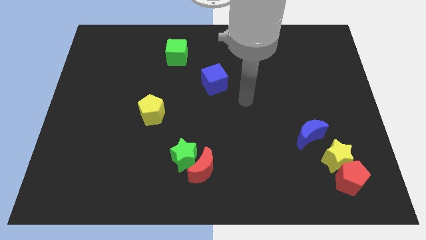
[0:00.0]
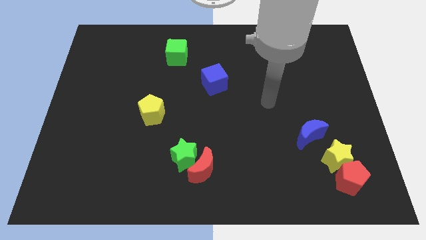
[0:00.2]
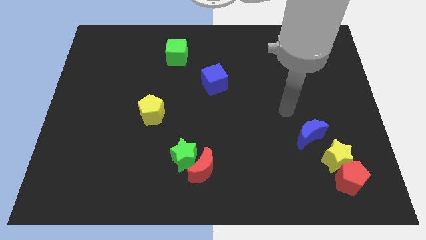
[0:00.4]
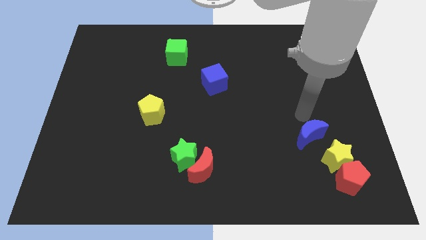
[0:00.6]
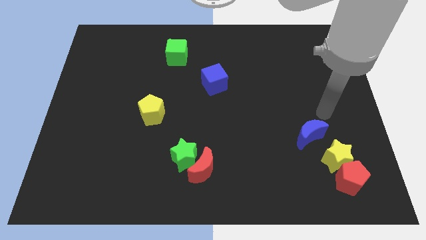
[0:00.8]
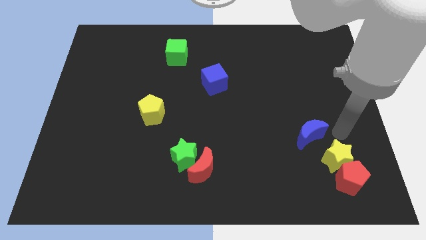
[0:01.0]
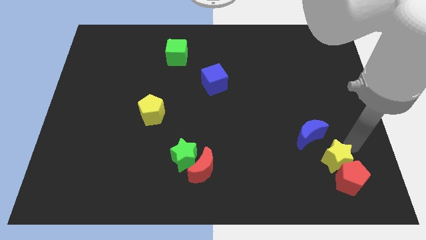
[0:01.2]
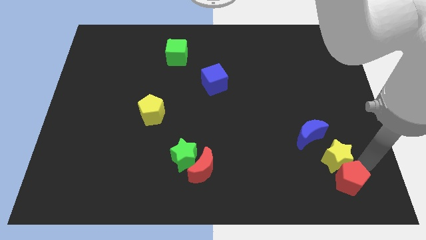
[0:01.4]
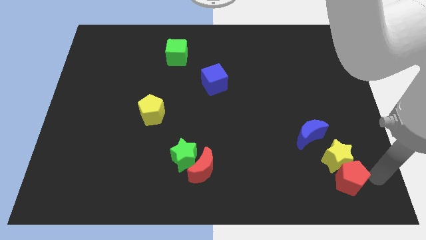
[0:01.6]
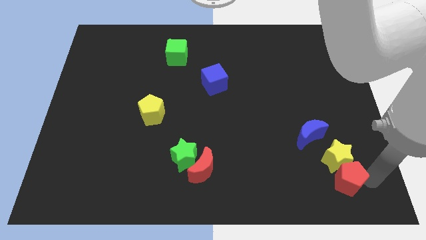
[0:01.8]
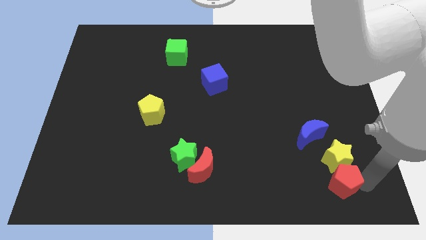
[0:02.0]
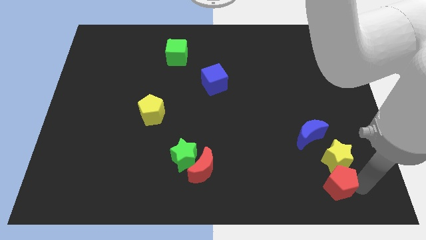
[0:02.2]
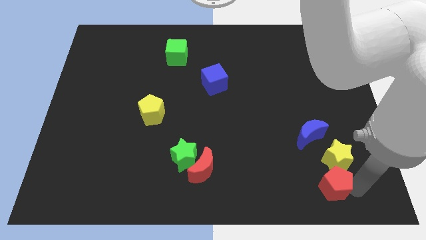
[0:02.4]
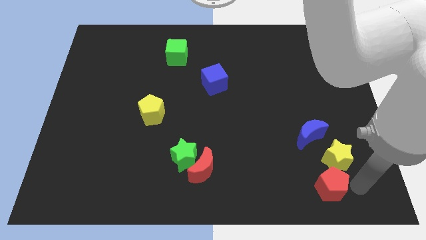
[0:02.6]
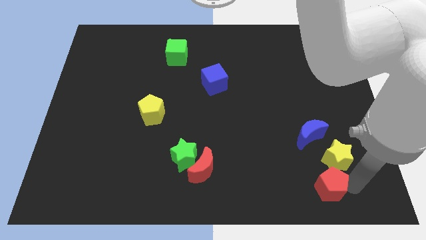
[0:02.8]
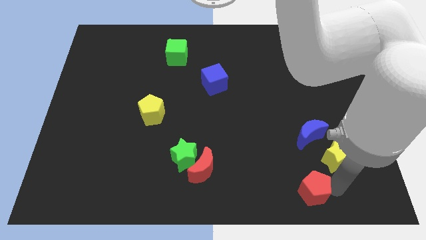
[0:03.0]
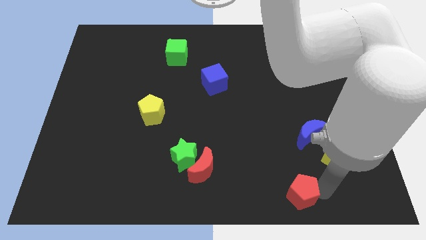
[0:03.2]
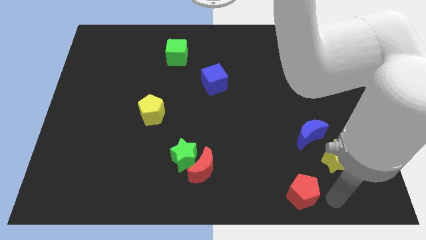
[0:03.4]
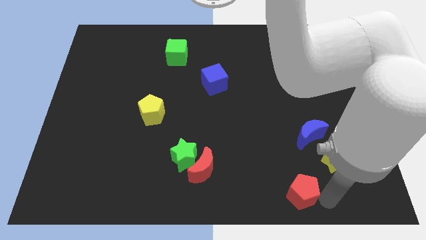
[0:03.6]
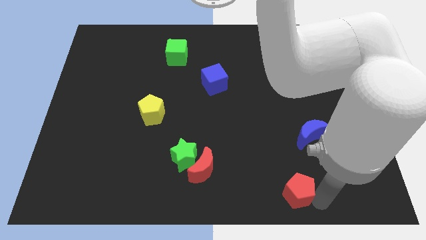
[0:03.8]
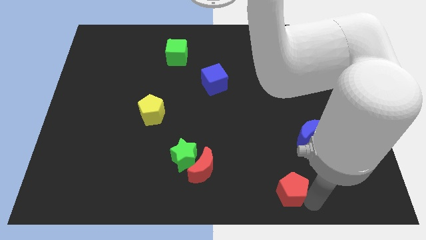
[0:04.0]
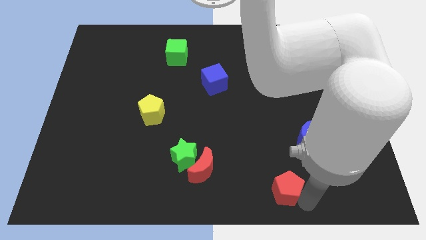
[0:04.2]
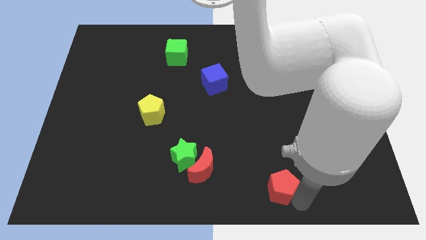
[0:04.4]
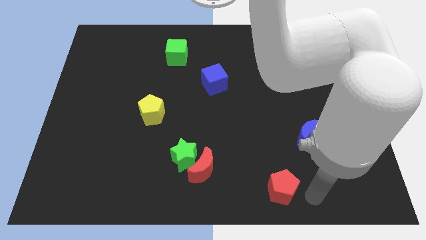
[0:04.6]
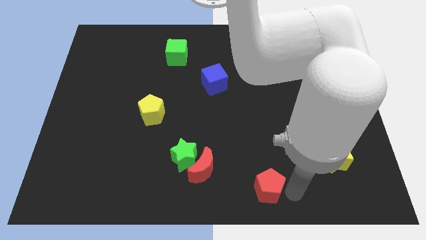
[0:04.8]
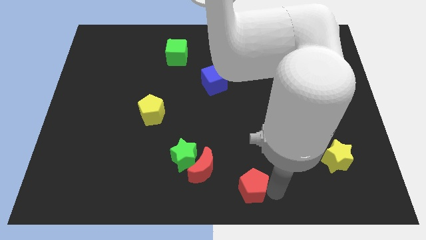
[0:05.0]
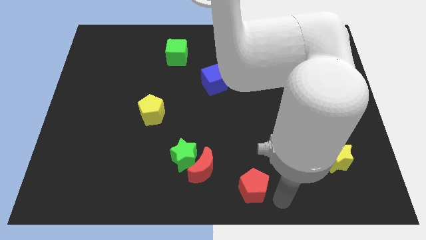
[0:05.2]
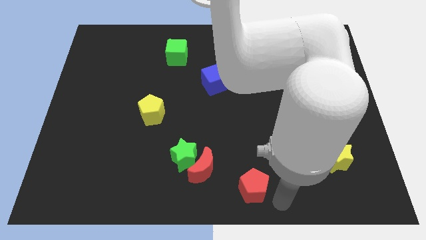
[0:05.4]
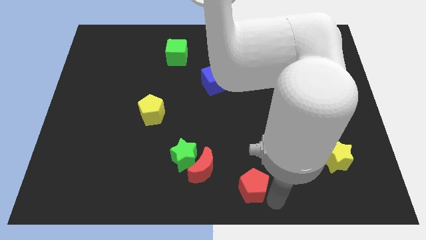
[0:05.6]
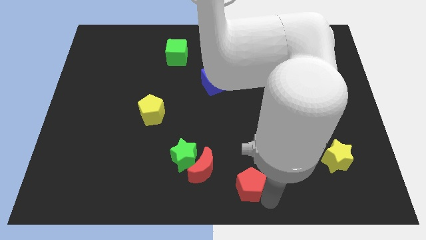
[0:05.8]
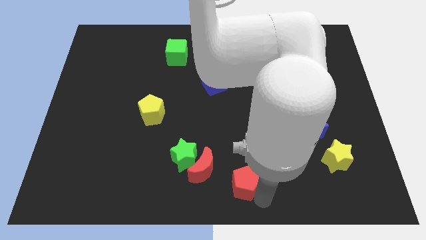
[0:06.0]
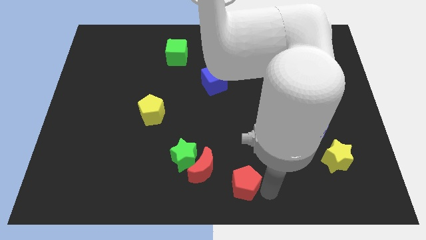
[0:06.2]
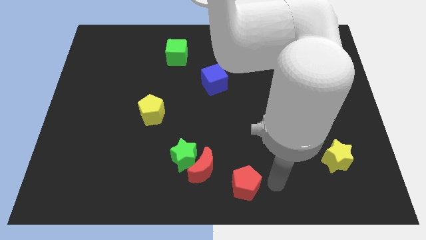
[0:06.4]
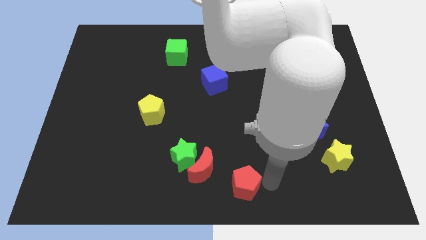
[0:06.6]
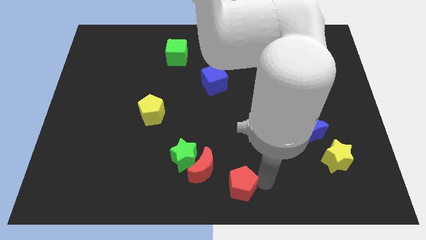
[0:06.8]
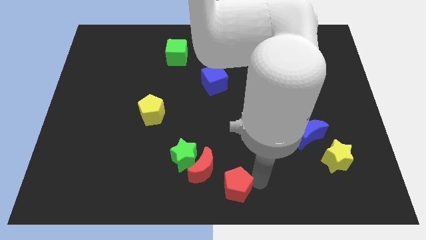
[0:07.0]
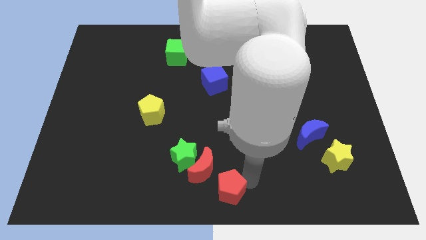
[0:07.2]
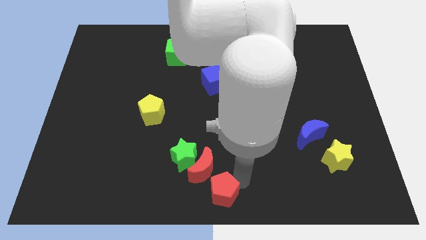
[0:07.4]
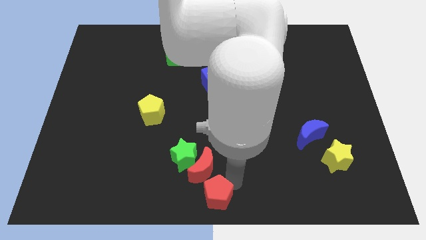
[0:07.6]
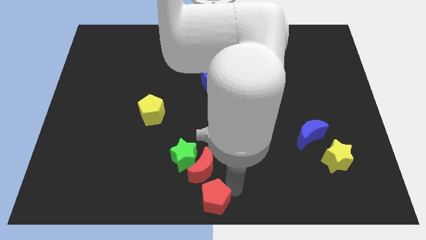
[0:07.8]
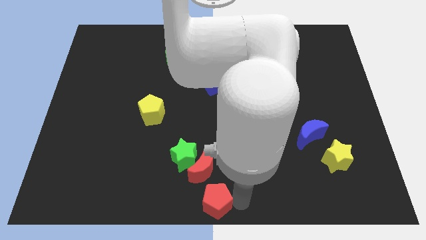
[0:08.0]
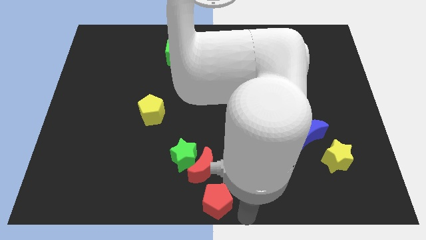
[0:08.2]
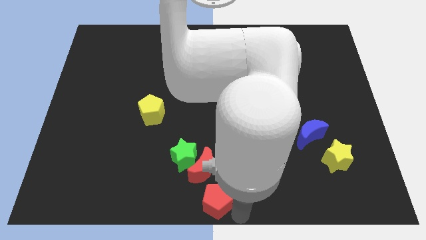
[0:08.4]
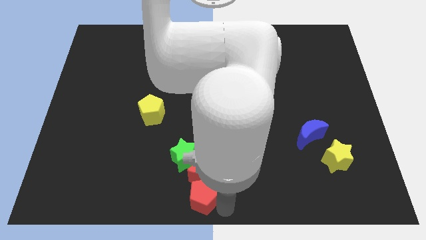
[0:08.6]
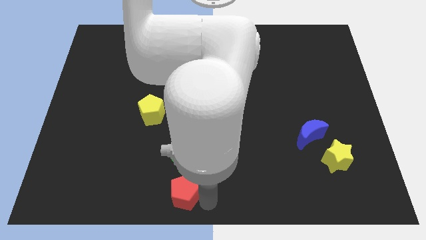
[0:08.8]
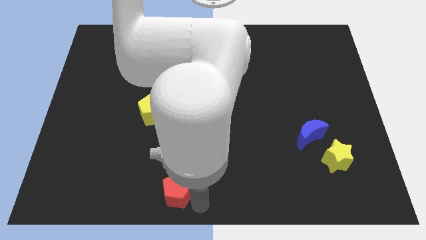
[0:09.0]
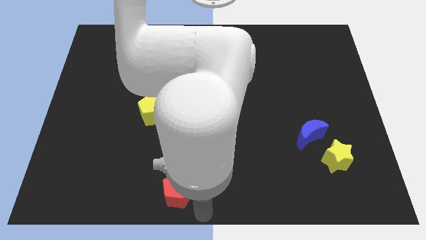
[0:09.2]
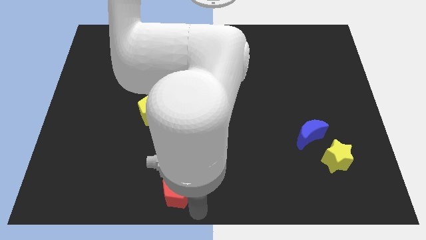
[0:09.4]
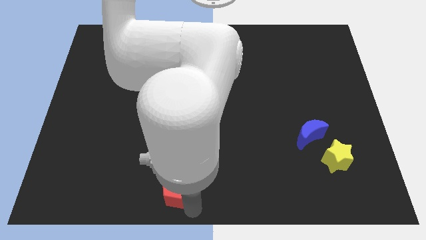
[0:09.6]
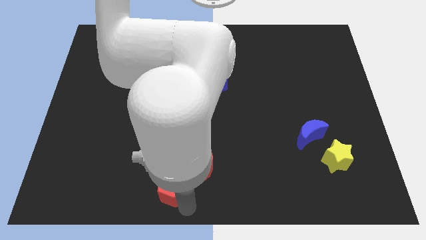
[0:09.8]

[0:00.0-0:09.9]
push the red pentagon to the left side of the red moon

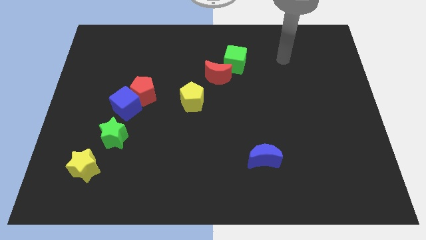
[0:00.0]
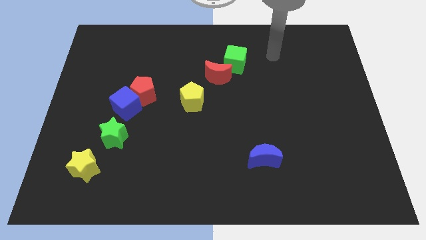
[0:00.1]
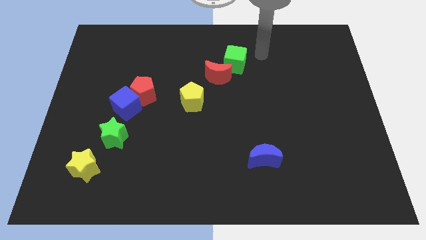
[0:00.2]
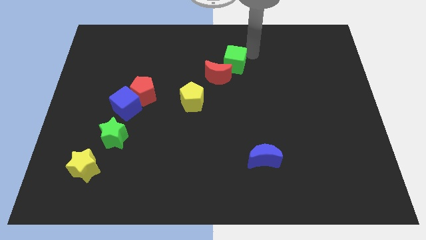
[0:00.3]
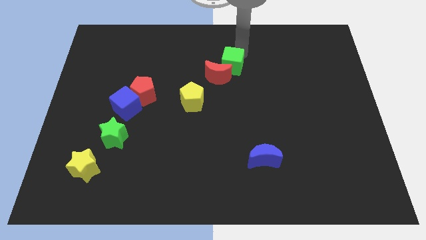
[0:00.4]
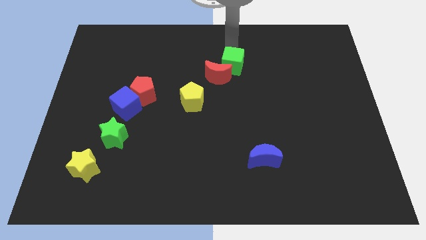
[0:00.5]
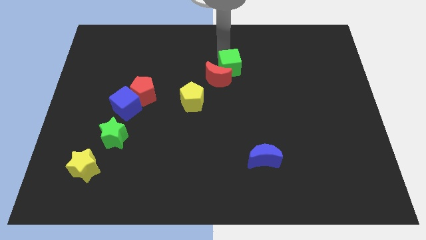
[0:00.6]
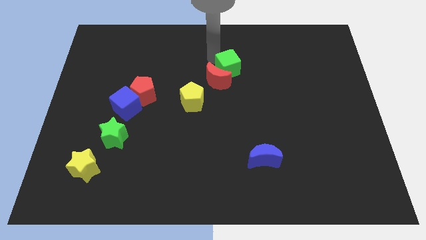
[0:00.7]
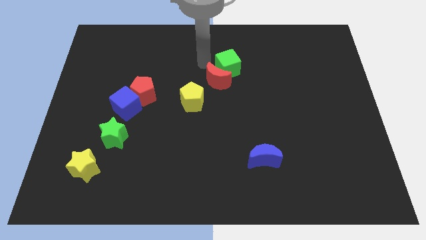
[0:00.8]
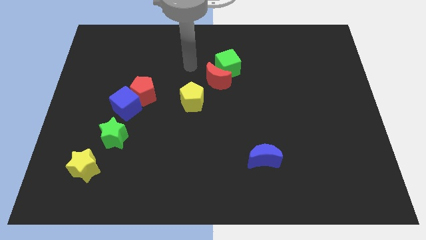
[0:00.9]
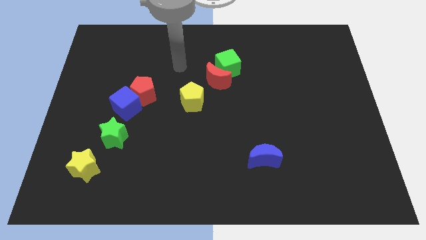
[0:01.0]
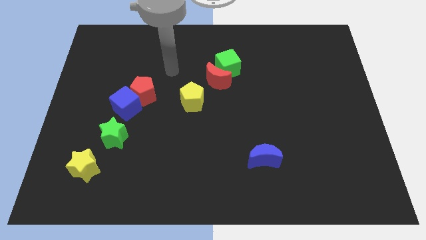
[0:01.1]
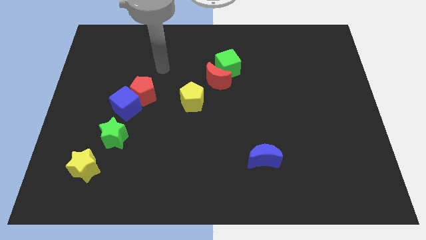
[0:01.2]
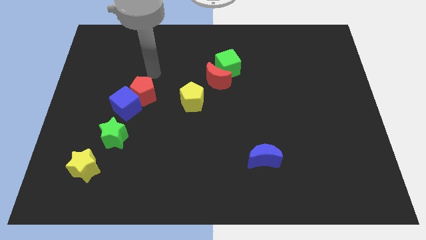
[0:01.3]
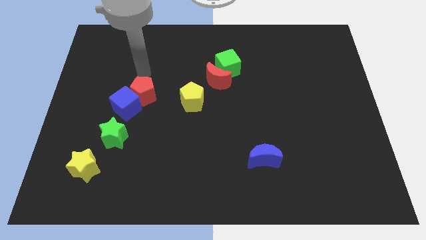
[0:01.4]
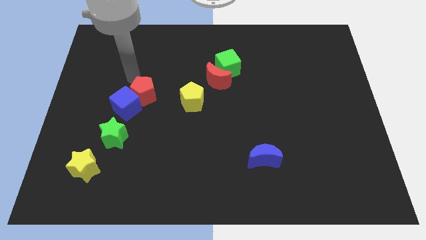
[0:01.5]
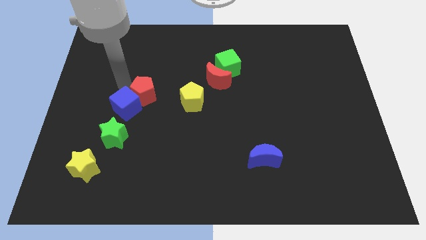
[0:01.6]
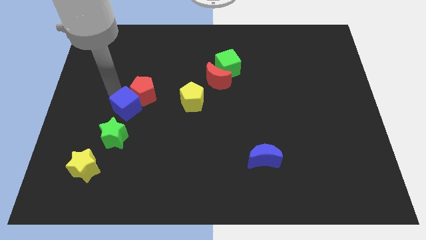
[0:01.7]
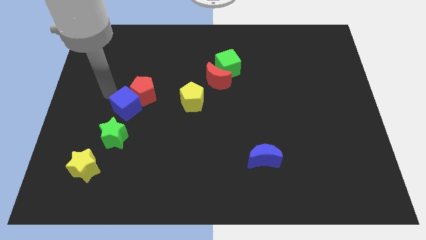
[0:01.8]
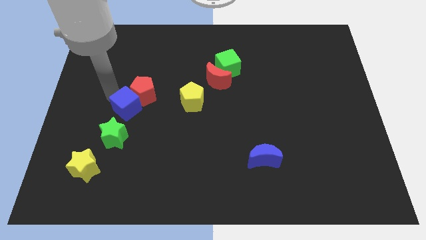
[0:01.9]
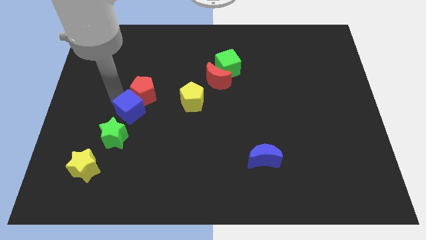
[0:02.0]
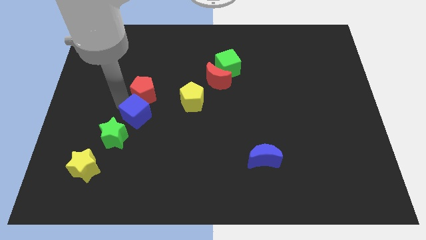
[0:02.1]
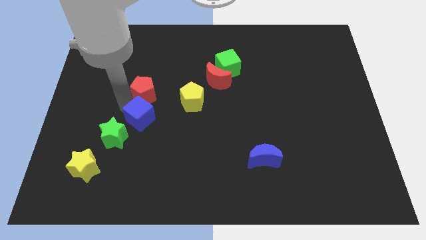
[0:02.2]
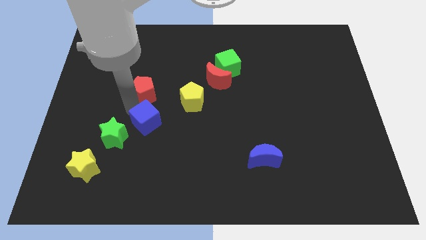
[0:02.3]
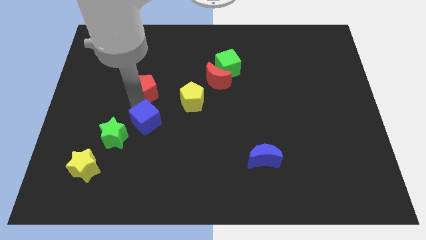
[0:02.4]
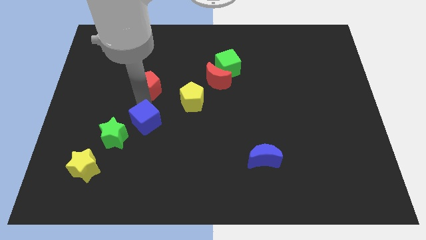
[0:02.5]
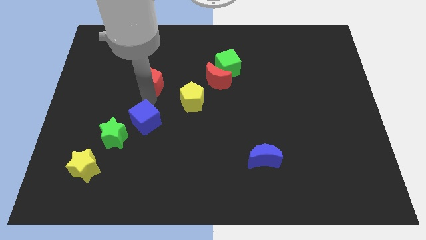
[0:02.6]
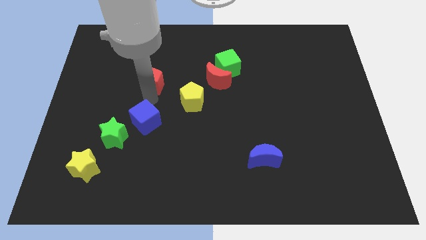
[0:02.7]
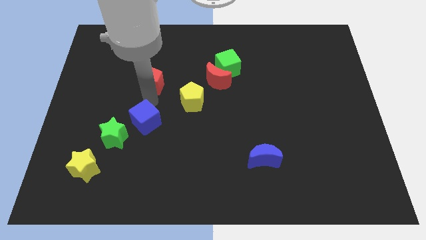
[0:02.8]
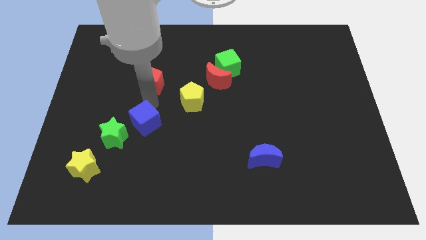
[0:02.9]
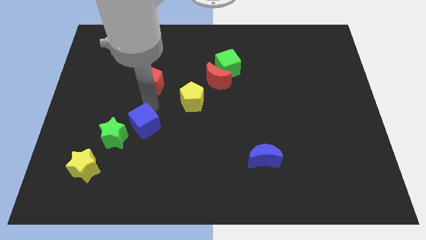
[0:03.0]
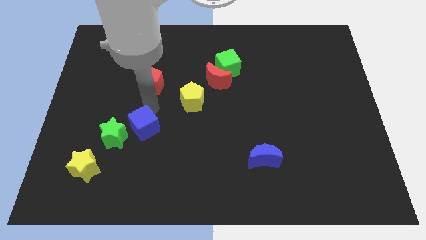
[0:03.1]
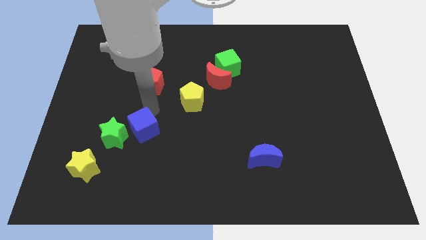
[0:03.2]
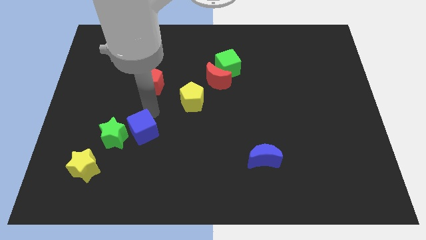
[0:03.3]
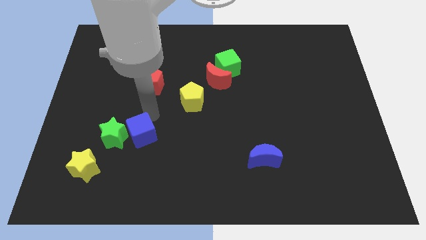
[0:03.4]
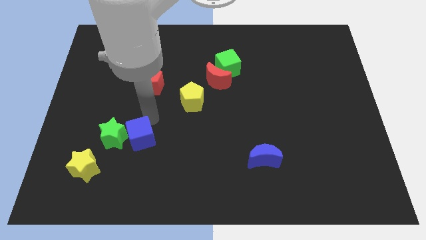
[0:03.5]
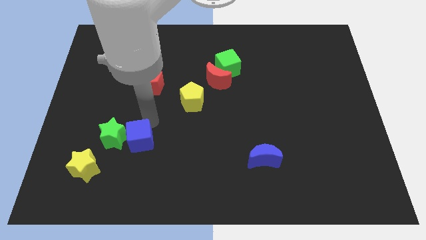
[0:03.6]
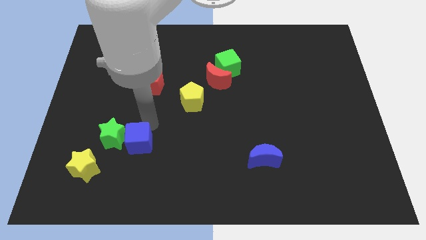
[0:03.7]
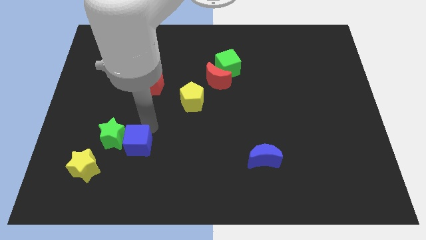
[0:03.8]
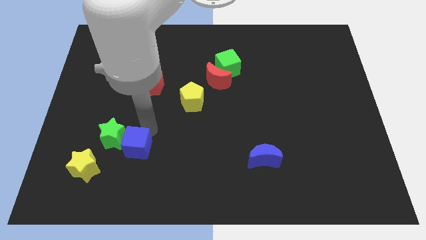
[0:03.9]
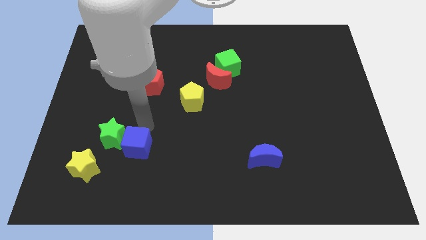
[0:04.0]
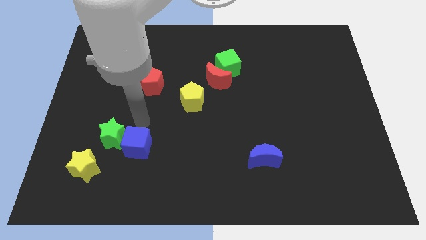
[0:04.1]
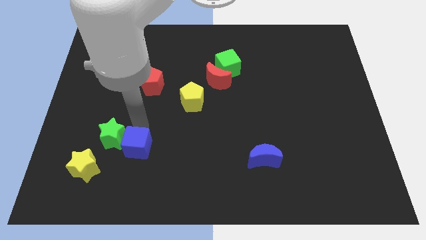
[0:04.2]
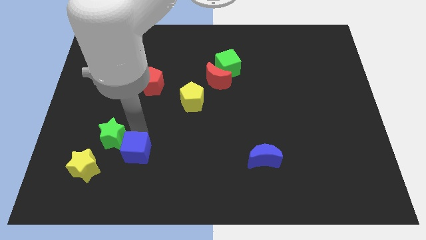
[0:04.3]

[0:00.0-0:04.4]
move the blue cube right of the yellow star
